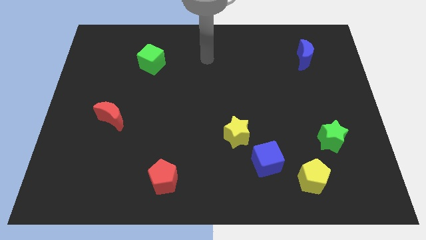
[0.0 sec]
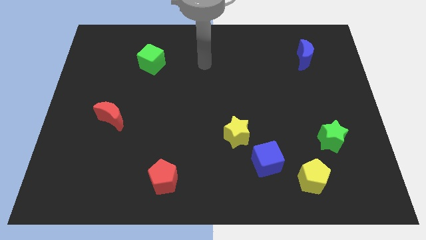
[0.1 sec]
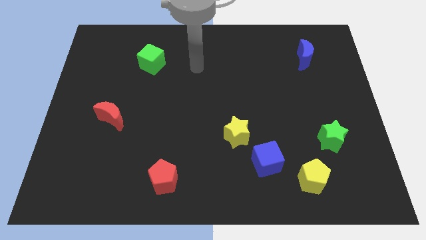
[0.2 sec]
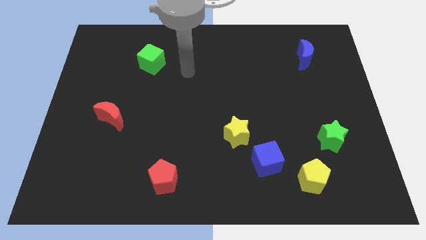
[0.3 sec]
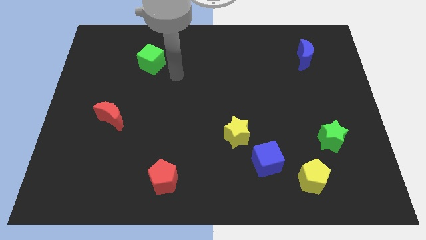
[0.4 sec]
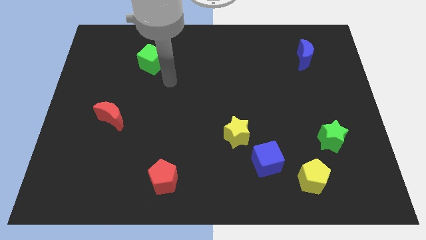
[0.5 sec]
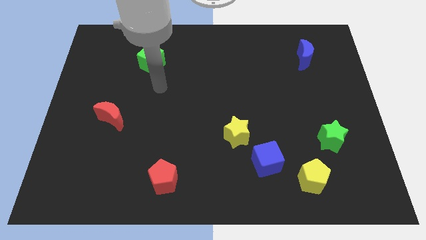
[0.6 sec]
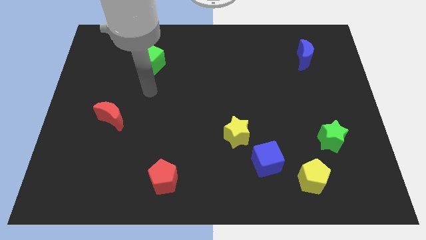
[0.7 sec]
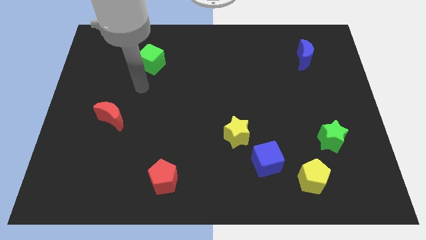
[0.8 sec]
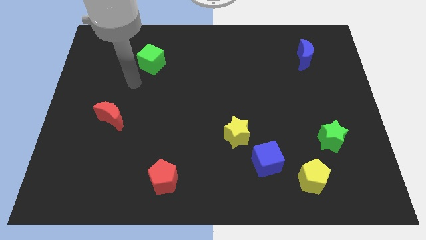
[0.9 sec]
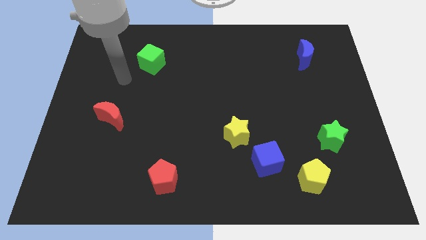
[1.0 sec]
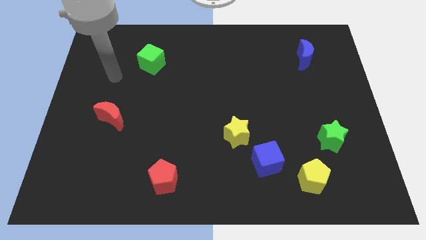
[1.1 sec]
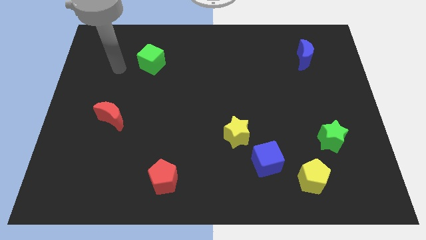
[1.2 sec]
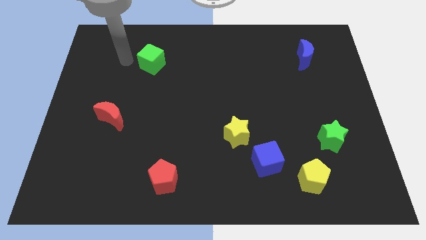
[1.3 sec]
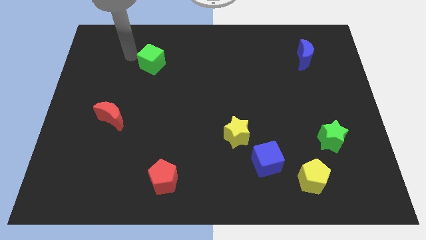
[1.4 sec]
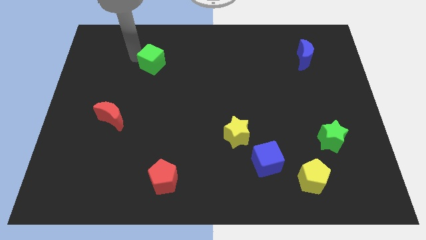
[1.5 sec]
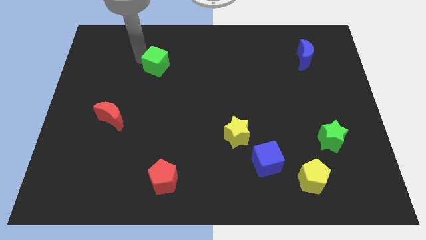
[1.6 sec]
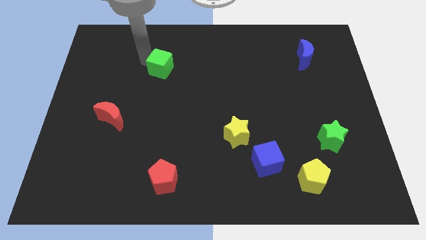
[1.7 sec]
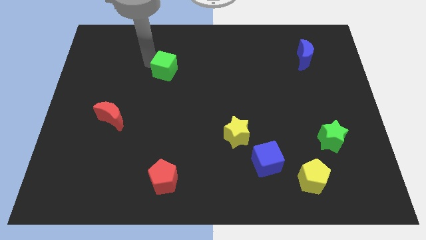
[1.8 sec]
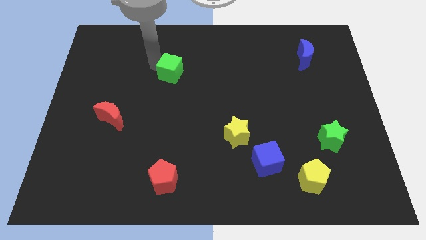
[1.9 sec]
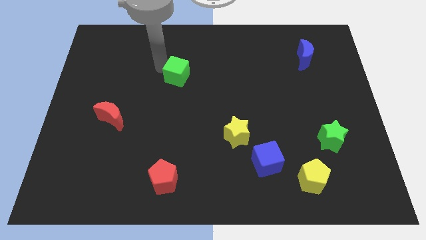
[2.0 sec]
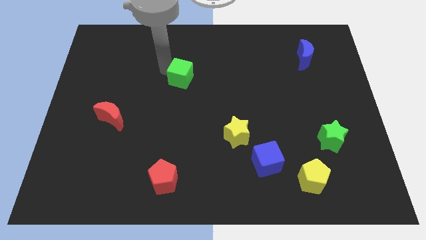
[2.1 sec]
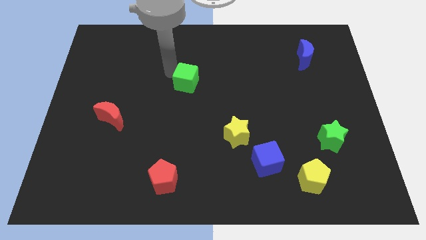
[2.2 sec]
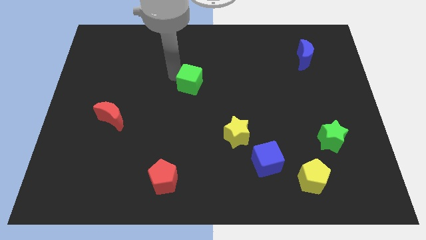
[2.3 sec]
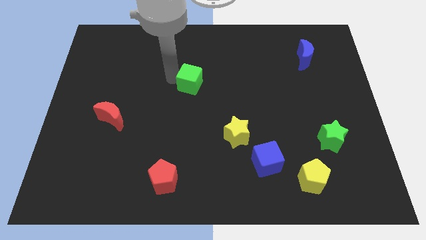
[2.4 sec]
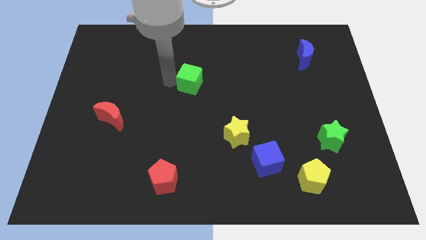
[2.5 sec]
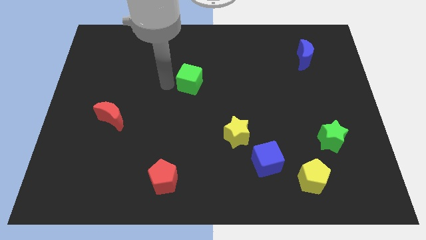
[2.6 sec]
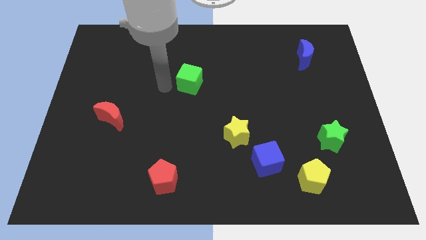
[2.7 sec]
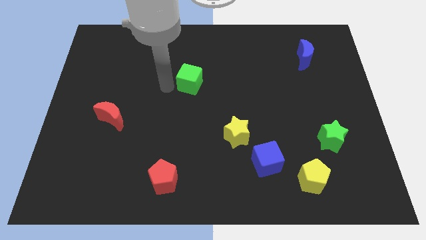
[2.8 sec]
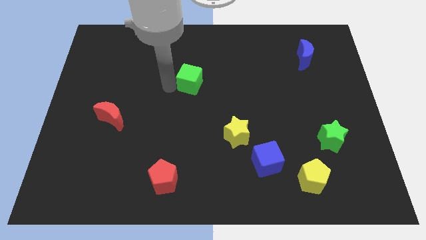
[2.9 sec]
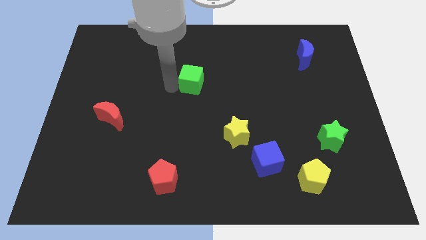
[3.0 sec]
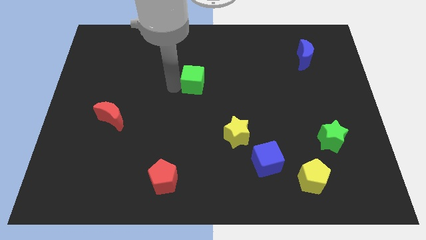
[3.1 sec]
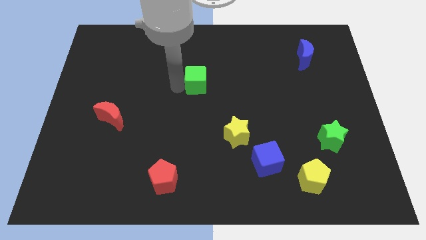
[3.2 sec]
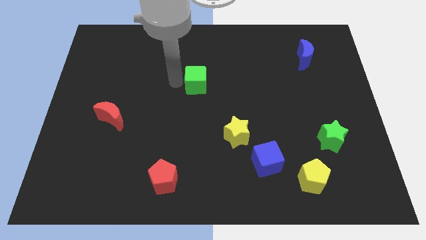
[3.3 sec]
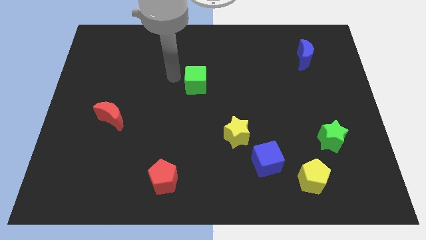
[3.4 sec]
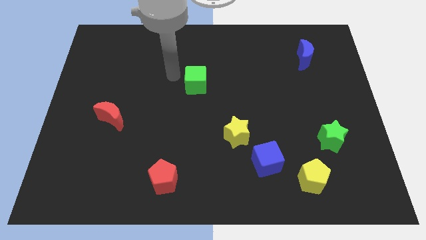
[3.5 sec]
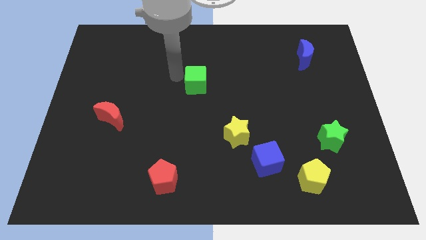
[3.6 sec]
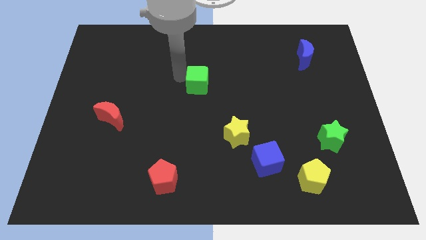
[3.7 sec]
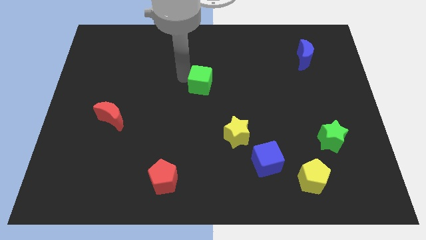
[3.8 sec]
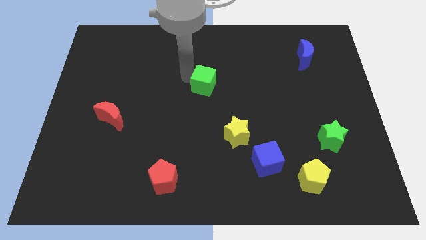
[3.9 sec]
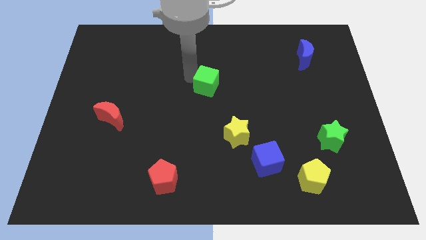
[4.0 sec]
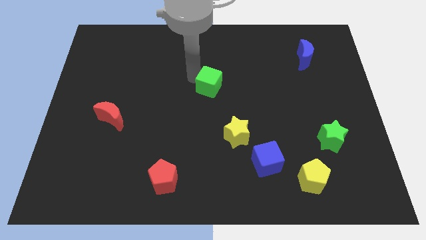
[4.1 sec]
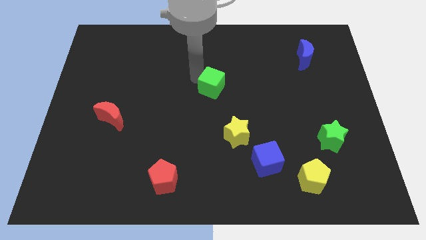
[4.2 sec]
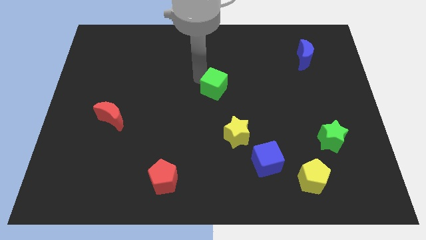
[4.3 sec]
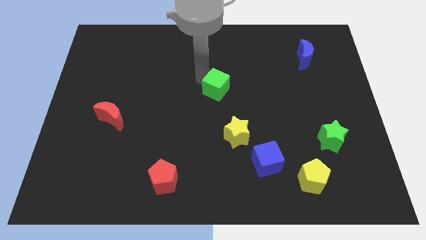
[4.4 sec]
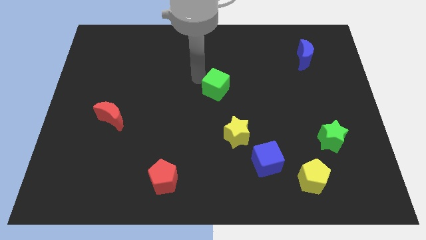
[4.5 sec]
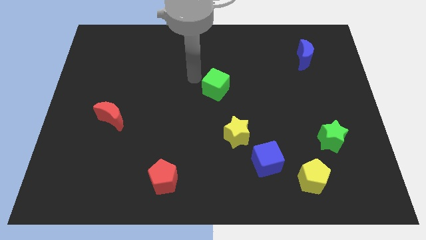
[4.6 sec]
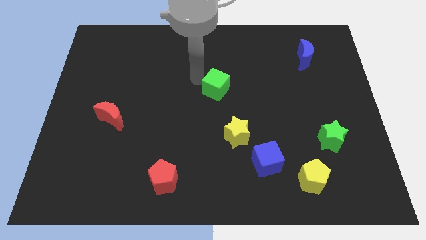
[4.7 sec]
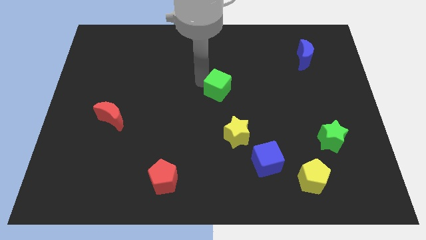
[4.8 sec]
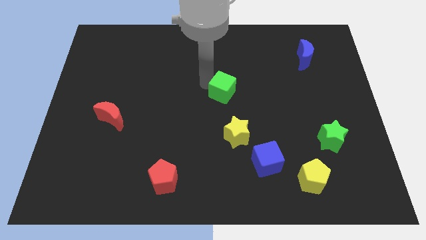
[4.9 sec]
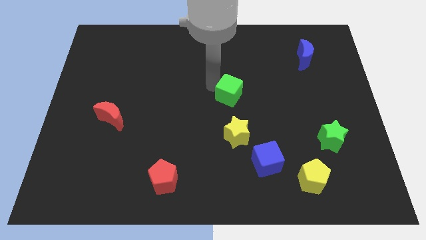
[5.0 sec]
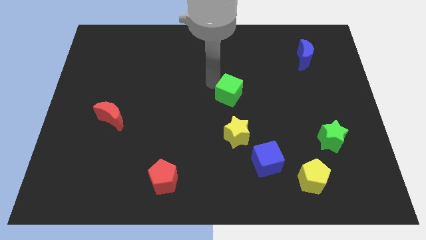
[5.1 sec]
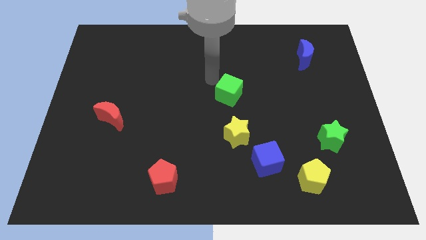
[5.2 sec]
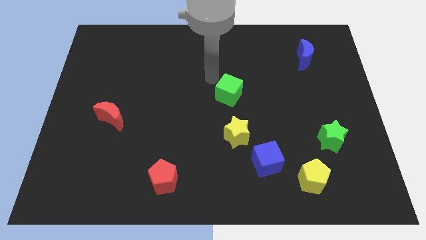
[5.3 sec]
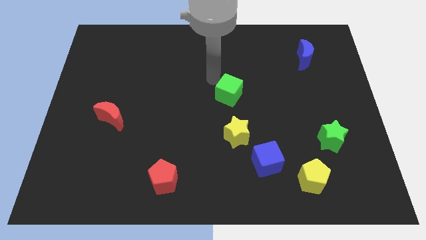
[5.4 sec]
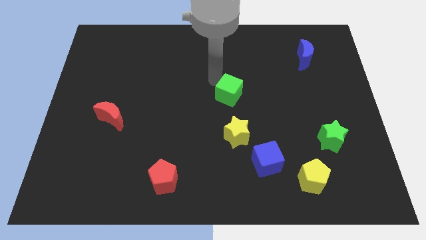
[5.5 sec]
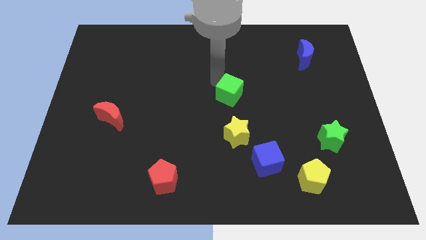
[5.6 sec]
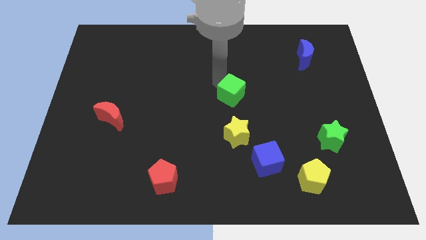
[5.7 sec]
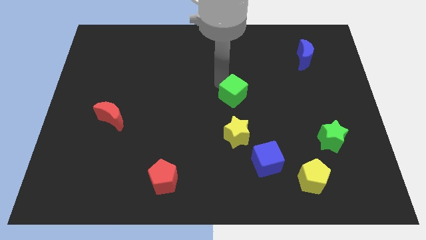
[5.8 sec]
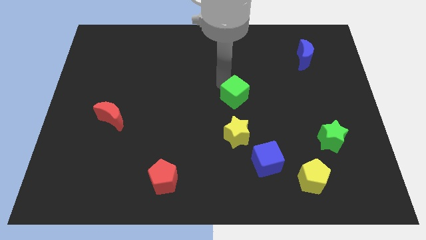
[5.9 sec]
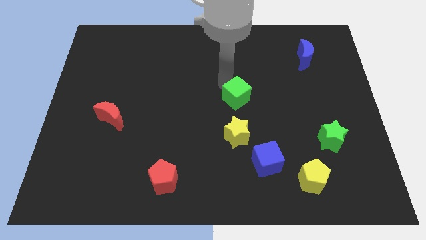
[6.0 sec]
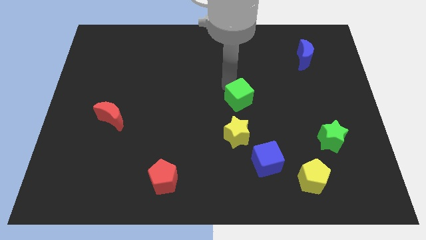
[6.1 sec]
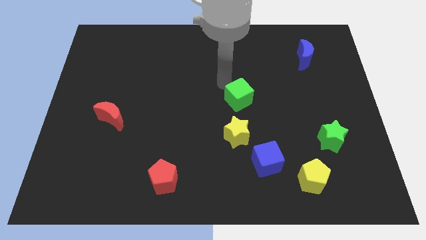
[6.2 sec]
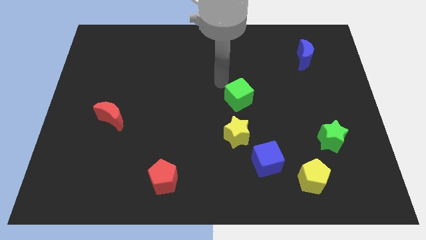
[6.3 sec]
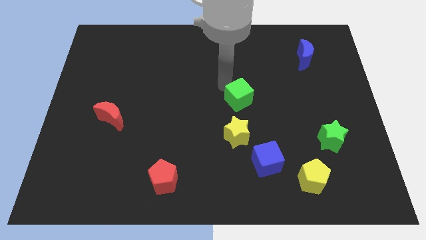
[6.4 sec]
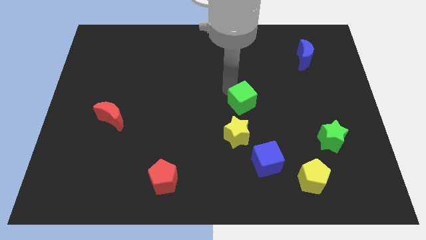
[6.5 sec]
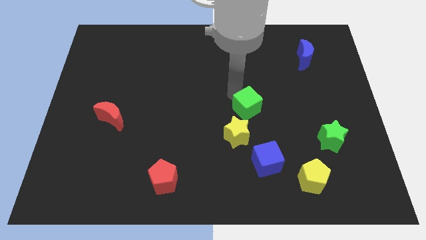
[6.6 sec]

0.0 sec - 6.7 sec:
push the green cube to the top right of the yellow star
